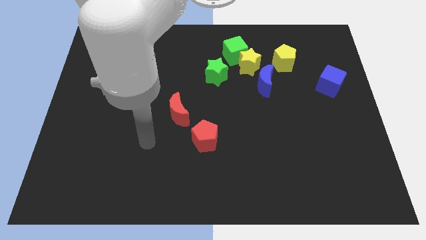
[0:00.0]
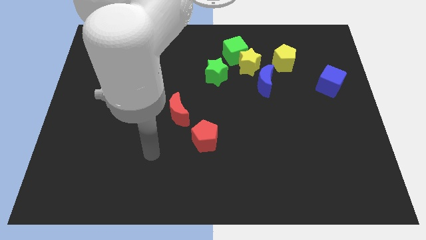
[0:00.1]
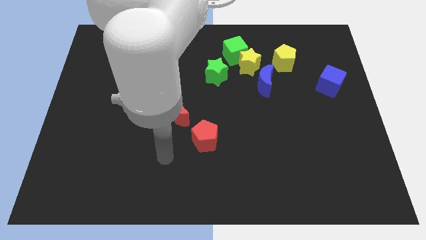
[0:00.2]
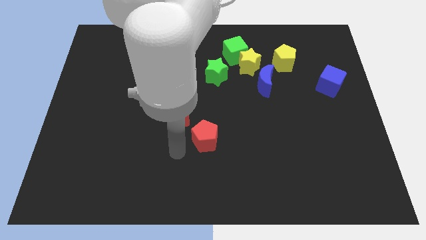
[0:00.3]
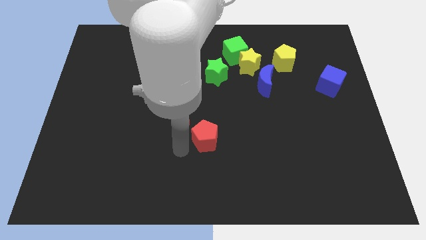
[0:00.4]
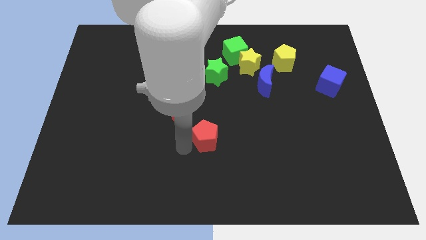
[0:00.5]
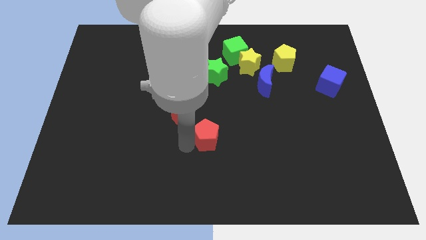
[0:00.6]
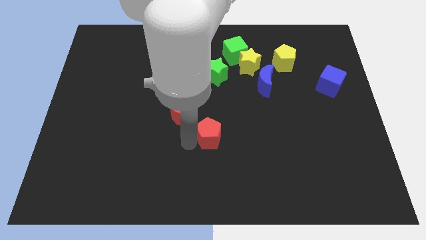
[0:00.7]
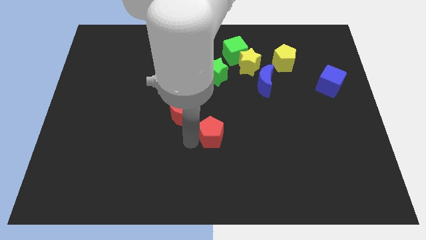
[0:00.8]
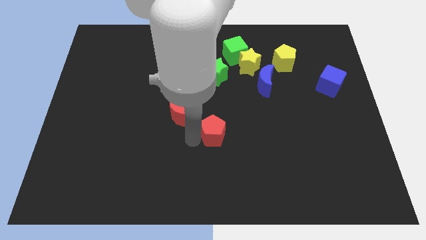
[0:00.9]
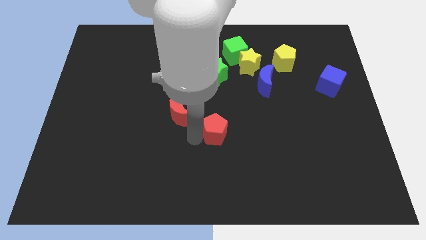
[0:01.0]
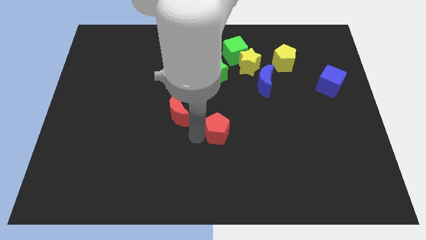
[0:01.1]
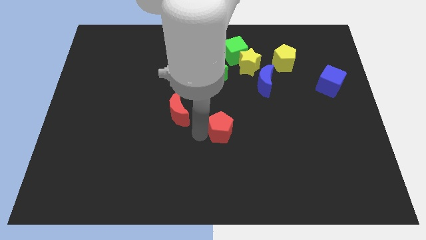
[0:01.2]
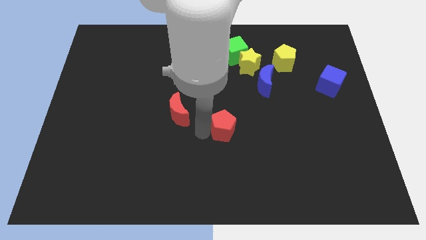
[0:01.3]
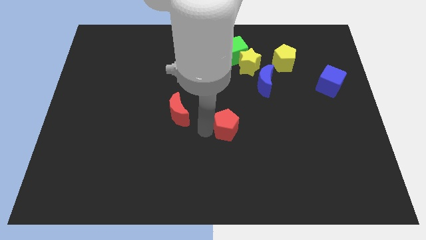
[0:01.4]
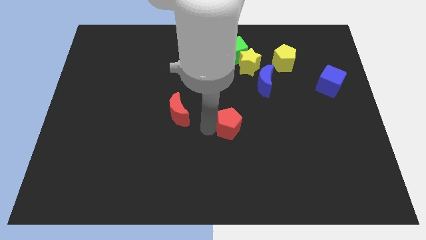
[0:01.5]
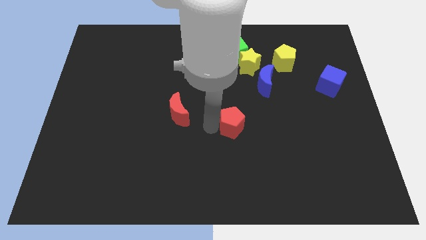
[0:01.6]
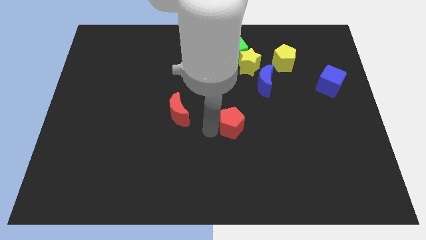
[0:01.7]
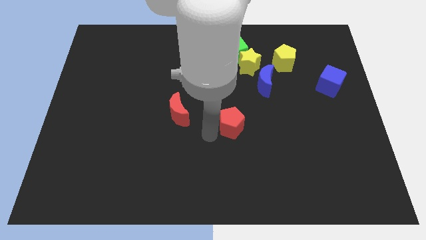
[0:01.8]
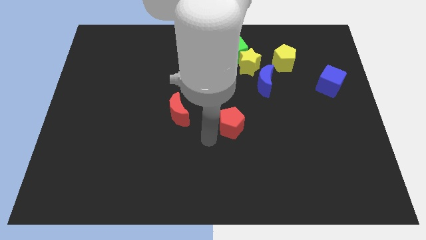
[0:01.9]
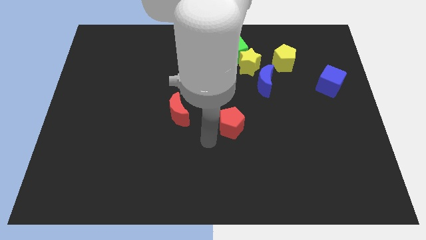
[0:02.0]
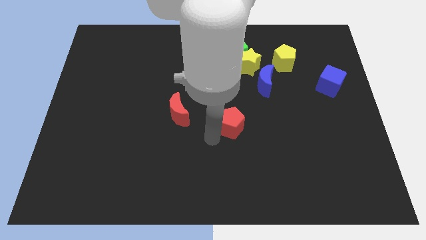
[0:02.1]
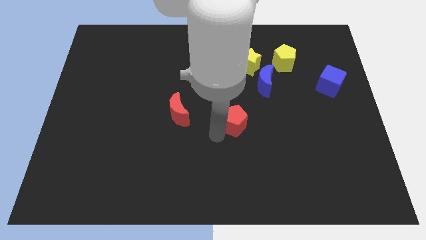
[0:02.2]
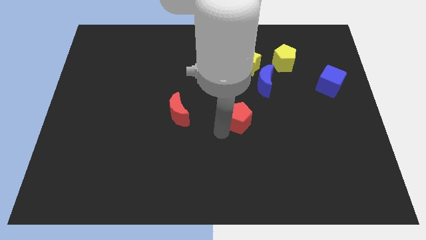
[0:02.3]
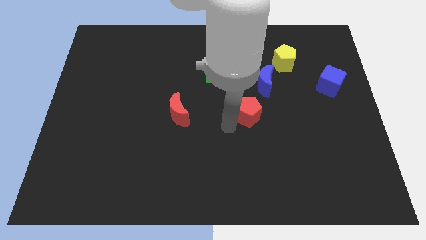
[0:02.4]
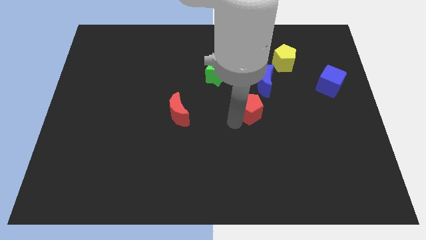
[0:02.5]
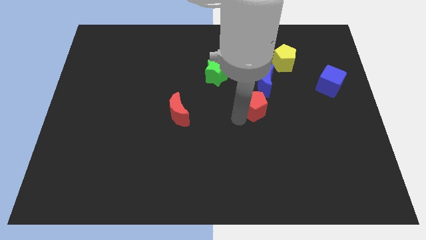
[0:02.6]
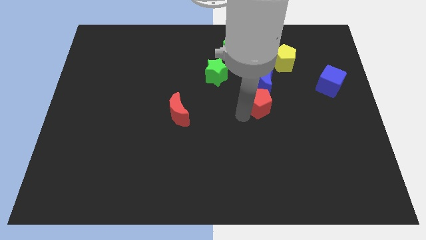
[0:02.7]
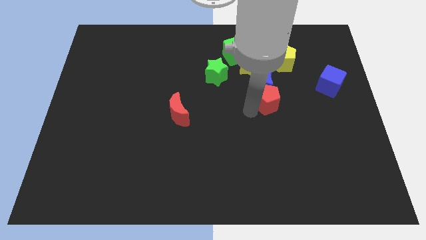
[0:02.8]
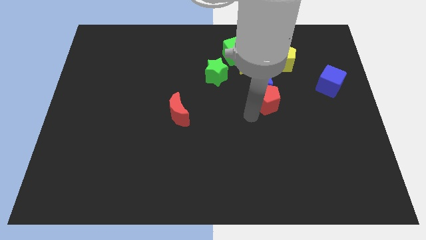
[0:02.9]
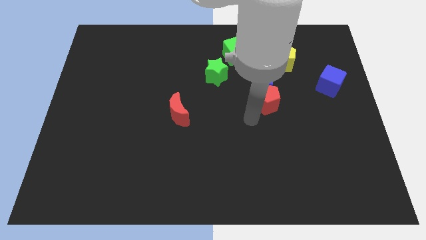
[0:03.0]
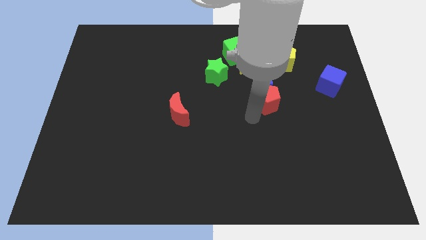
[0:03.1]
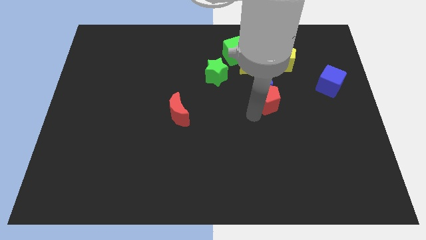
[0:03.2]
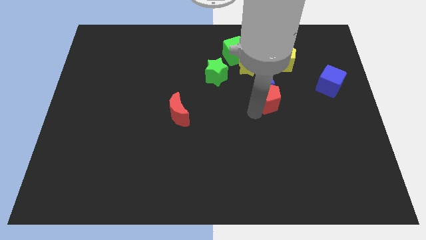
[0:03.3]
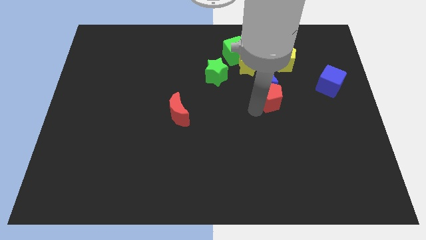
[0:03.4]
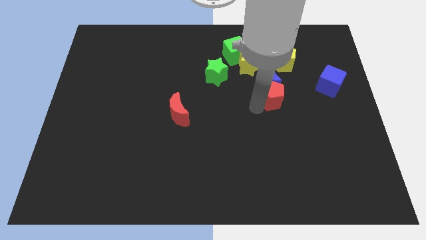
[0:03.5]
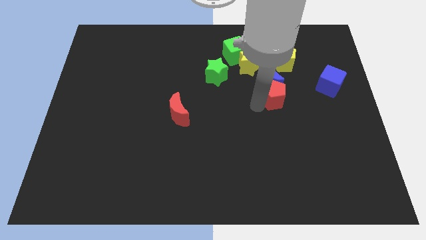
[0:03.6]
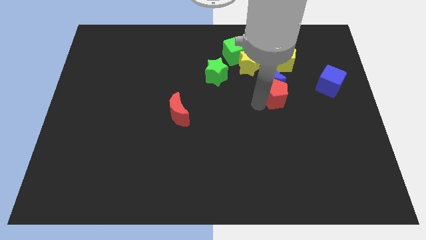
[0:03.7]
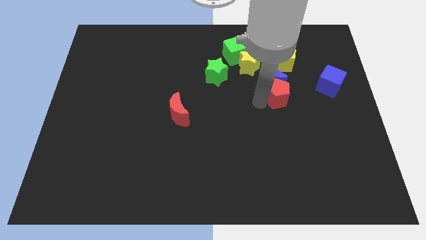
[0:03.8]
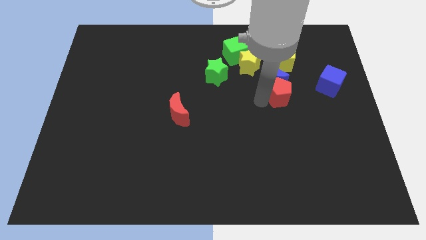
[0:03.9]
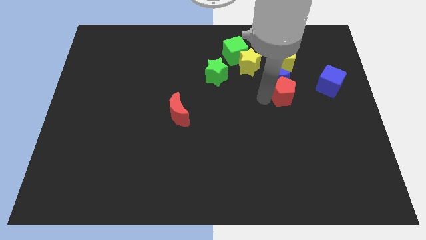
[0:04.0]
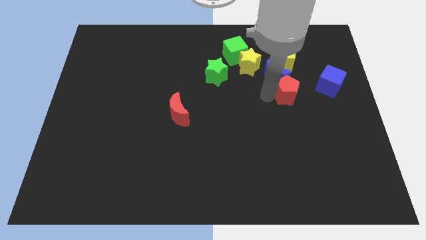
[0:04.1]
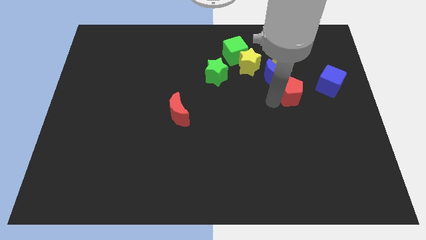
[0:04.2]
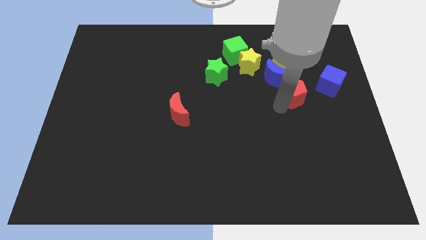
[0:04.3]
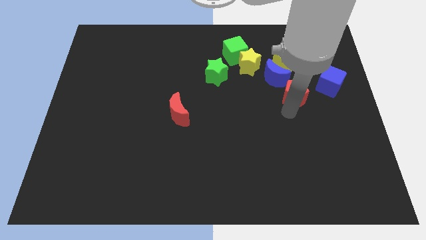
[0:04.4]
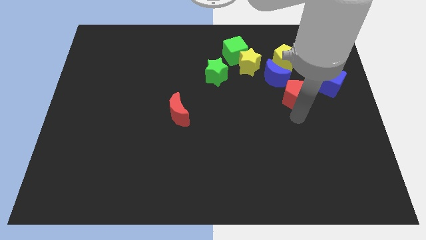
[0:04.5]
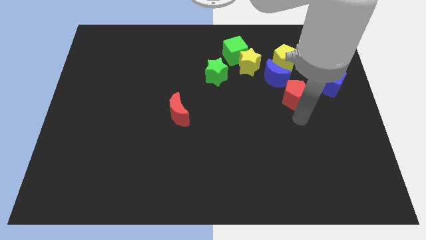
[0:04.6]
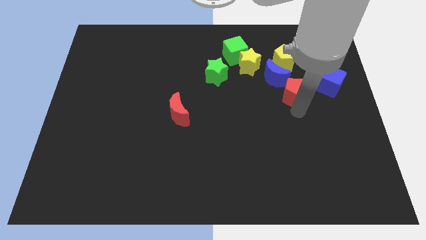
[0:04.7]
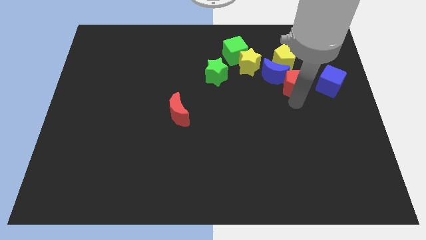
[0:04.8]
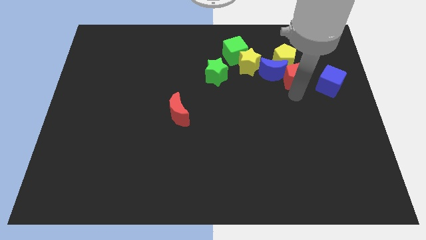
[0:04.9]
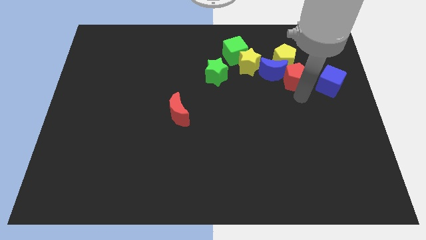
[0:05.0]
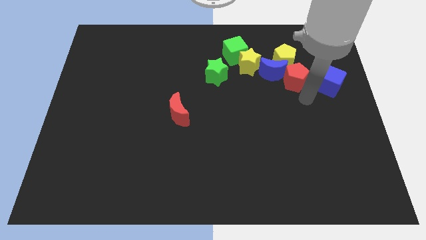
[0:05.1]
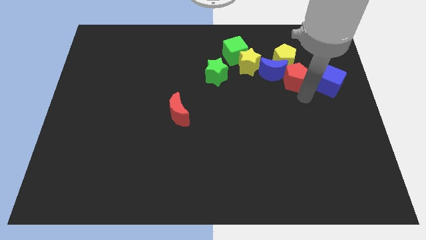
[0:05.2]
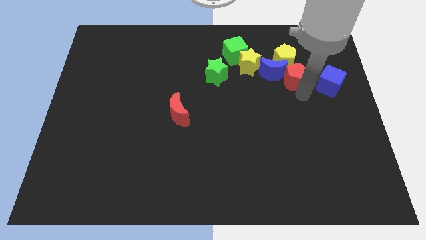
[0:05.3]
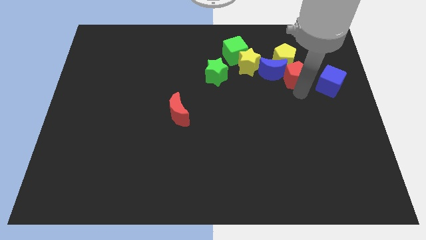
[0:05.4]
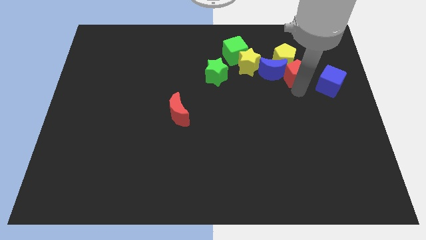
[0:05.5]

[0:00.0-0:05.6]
move the red pentagon to the yellow pentagon

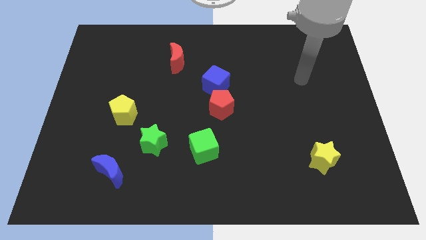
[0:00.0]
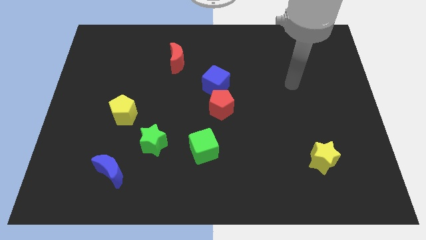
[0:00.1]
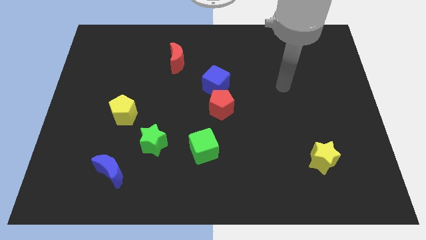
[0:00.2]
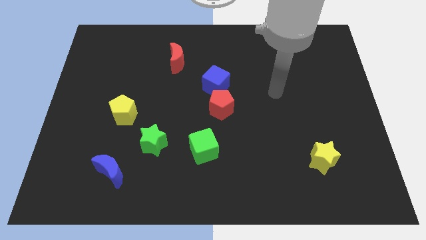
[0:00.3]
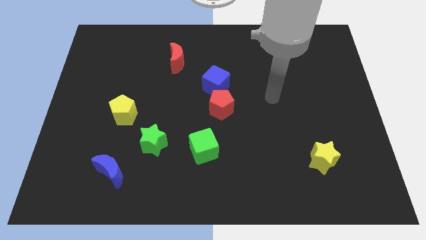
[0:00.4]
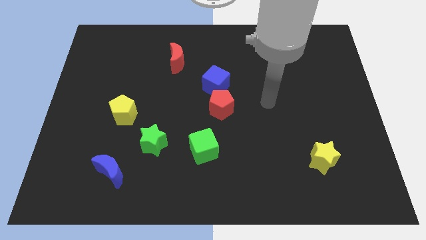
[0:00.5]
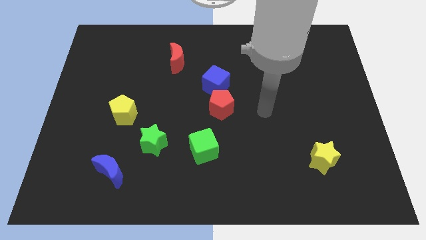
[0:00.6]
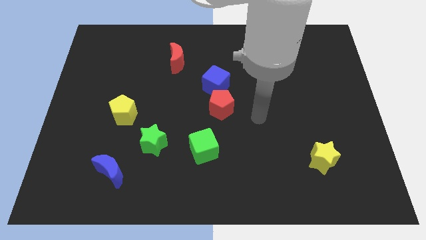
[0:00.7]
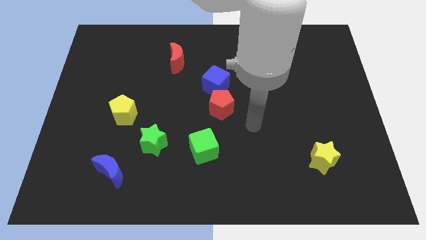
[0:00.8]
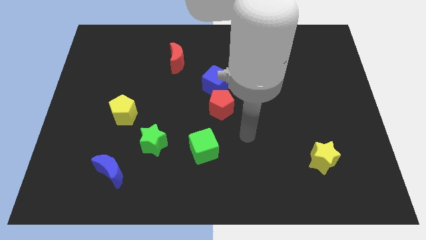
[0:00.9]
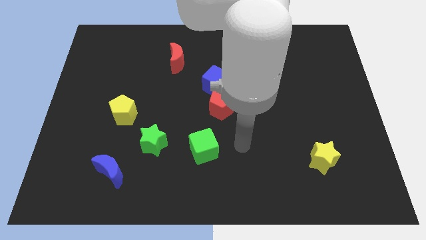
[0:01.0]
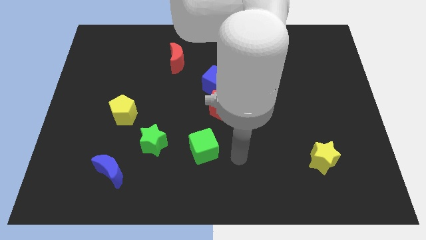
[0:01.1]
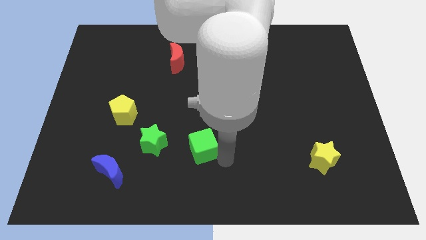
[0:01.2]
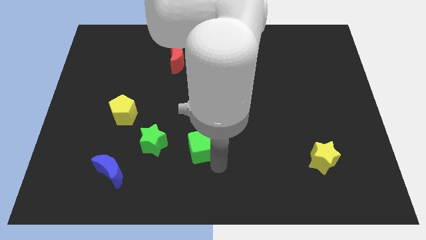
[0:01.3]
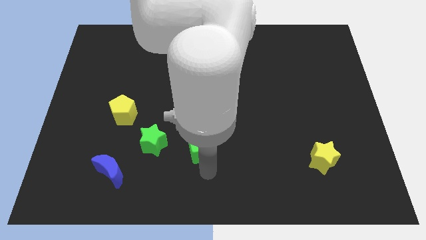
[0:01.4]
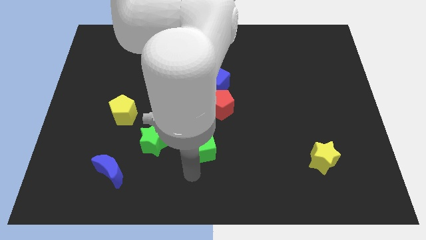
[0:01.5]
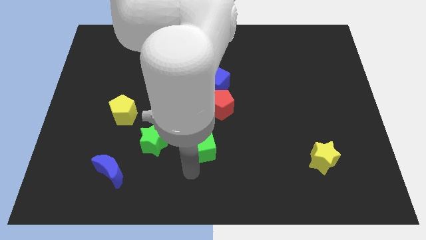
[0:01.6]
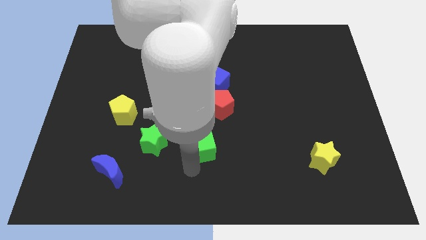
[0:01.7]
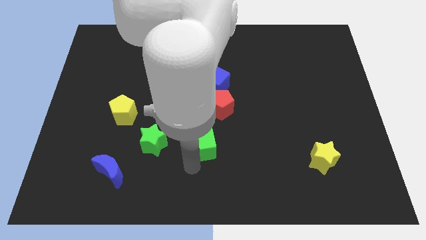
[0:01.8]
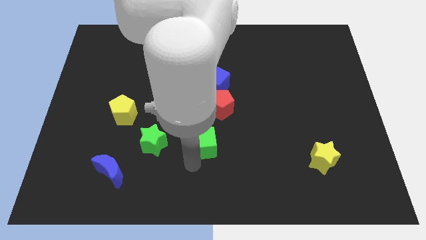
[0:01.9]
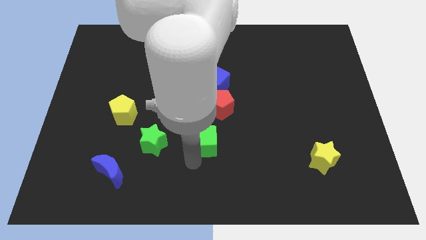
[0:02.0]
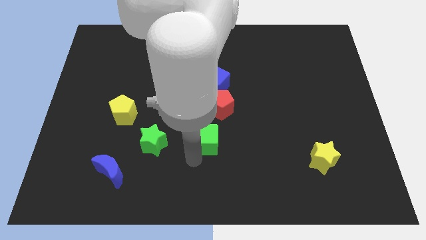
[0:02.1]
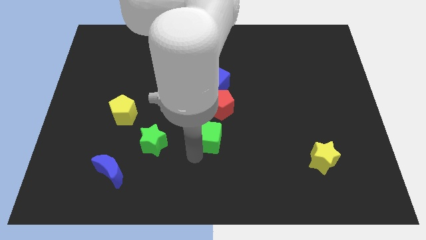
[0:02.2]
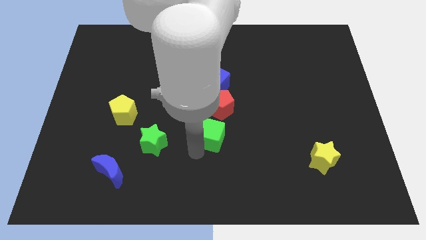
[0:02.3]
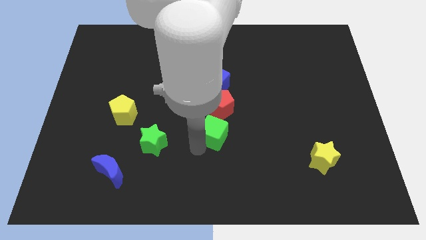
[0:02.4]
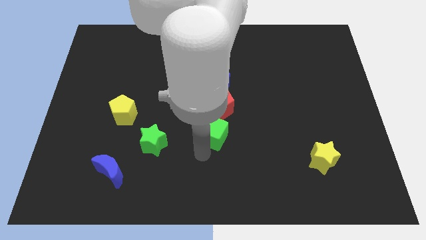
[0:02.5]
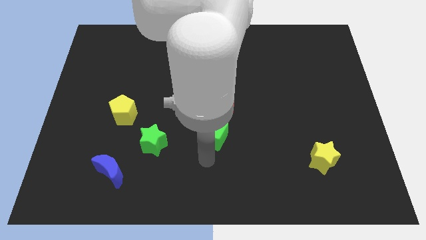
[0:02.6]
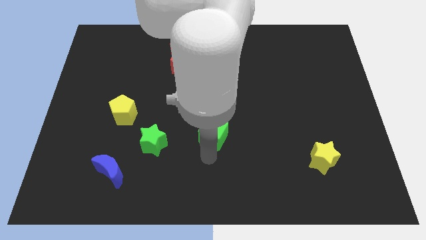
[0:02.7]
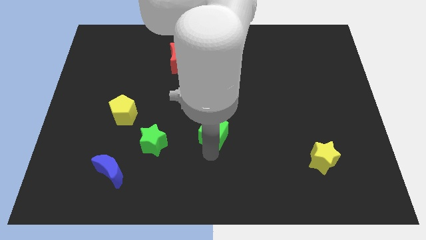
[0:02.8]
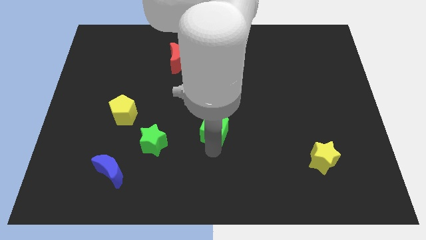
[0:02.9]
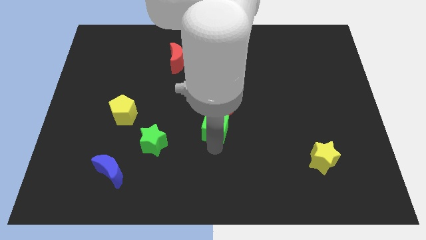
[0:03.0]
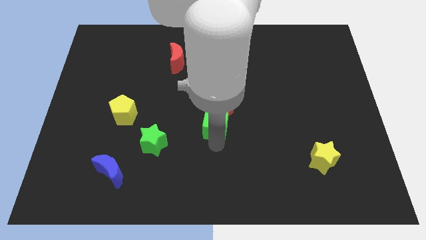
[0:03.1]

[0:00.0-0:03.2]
slide the green cube close to the red pentagon
